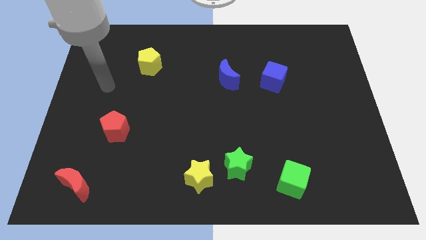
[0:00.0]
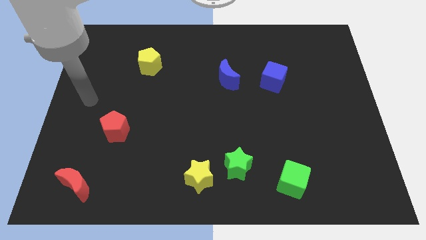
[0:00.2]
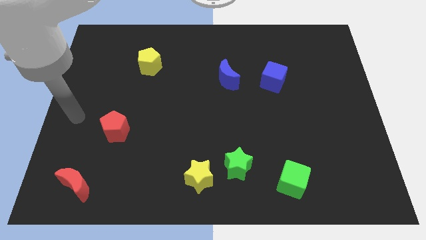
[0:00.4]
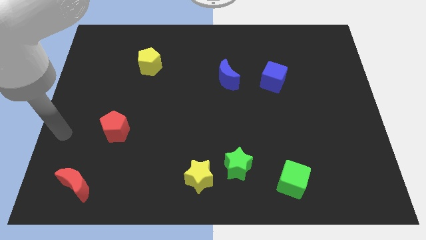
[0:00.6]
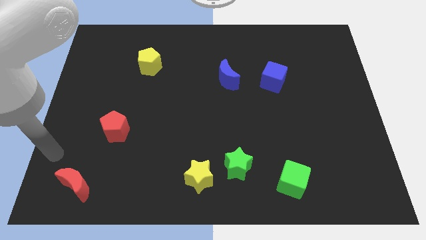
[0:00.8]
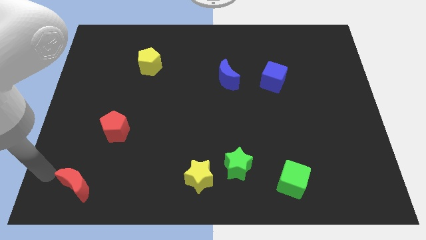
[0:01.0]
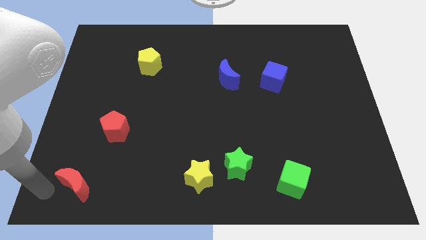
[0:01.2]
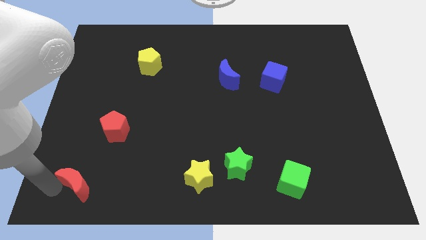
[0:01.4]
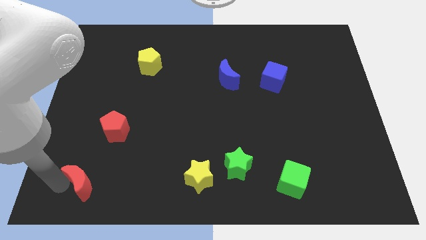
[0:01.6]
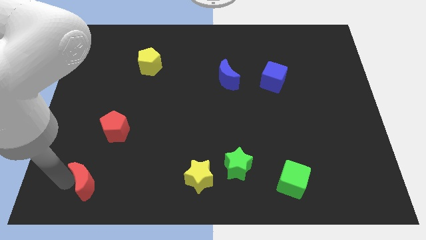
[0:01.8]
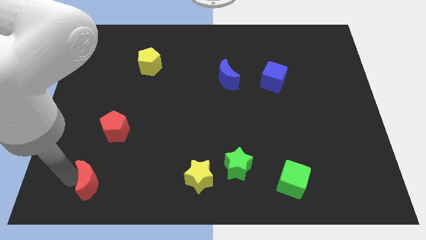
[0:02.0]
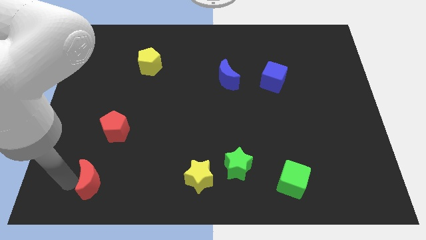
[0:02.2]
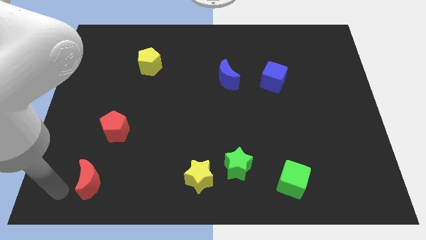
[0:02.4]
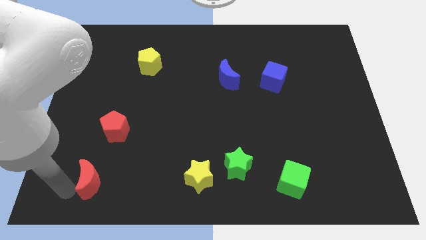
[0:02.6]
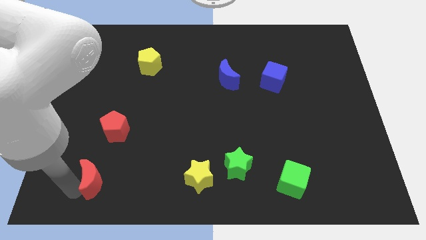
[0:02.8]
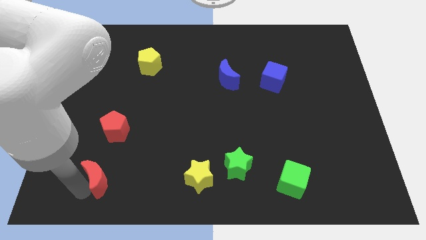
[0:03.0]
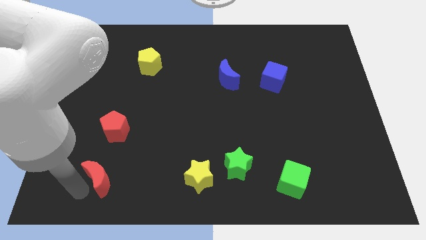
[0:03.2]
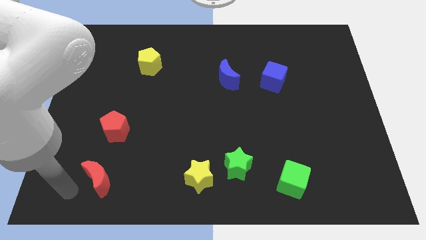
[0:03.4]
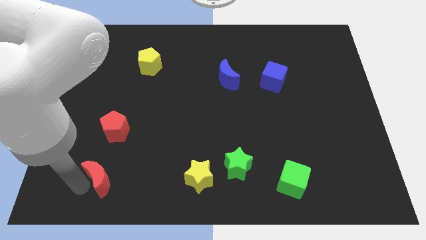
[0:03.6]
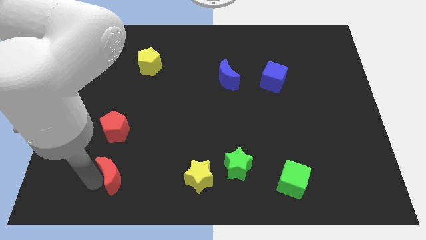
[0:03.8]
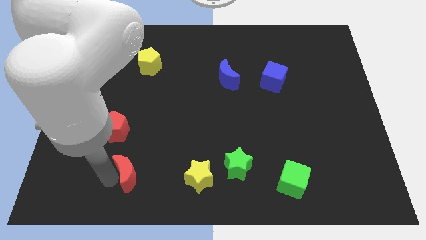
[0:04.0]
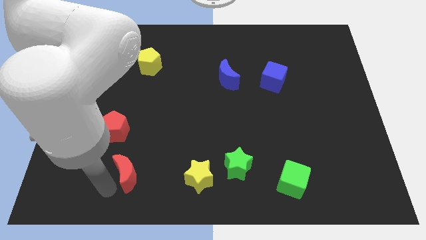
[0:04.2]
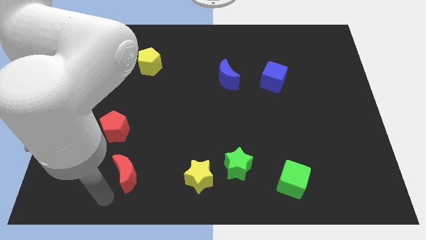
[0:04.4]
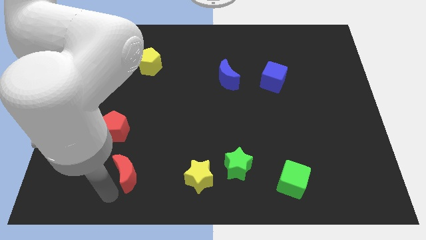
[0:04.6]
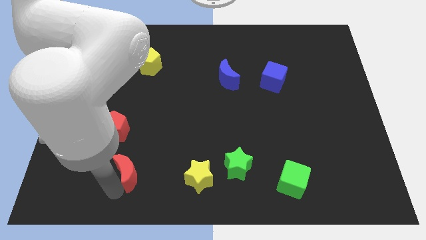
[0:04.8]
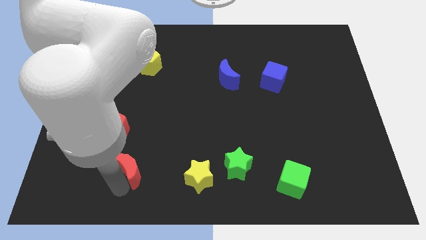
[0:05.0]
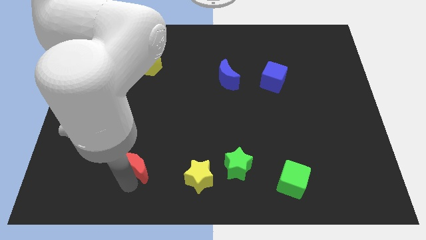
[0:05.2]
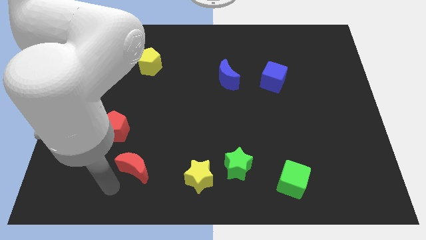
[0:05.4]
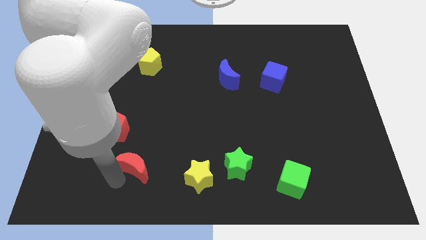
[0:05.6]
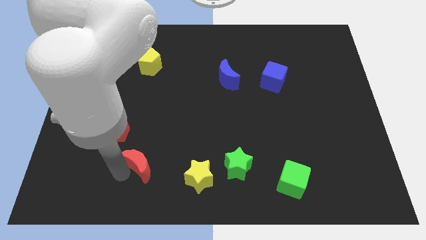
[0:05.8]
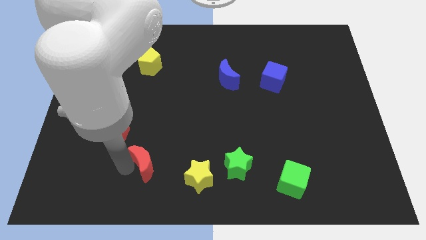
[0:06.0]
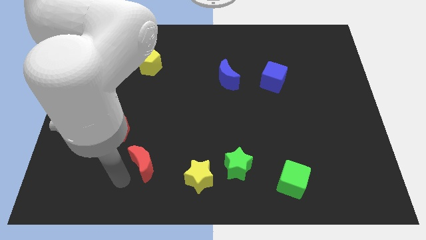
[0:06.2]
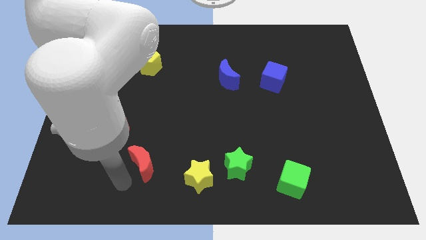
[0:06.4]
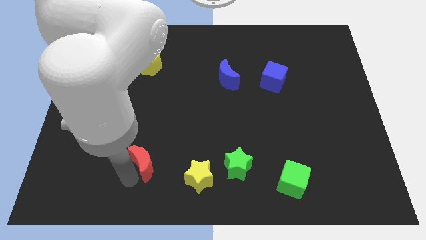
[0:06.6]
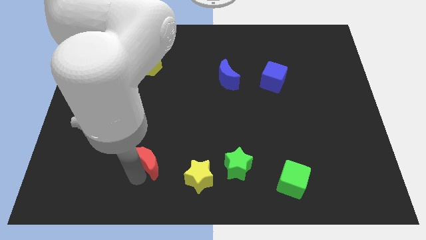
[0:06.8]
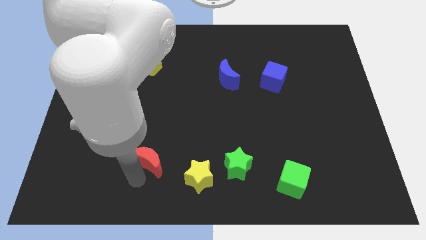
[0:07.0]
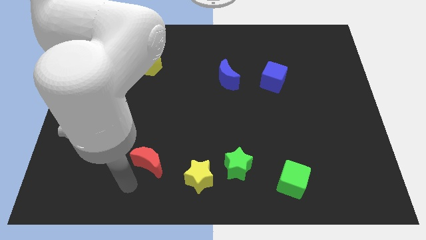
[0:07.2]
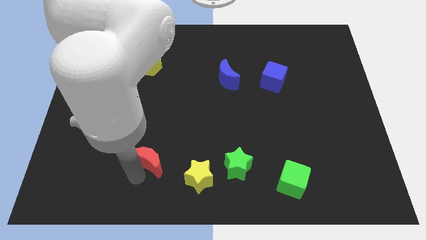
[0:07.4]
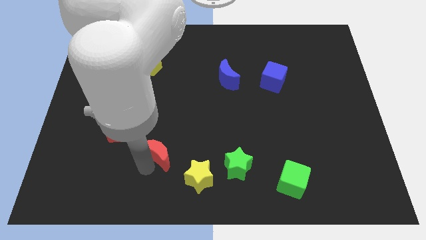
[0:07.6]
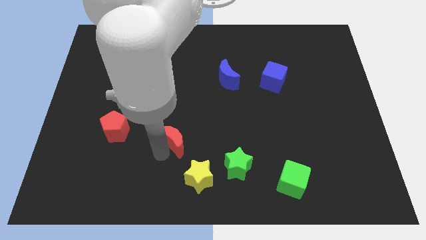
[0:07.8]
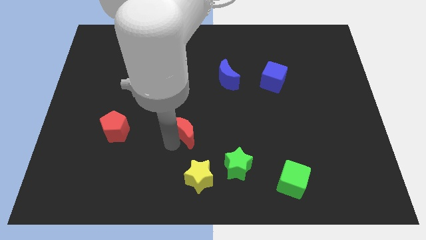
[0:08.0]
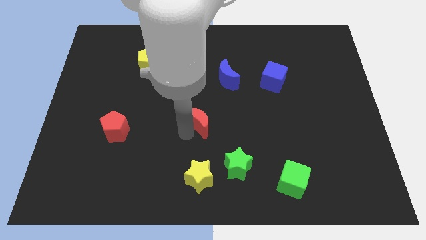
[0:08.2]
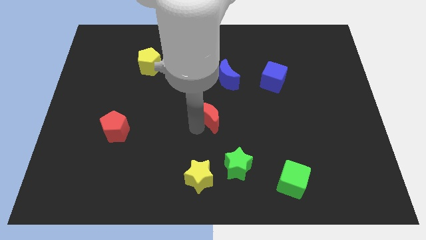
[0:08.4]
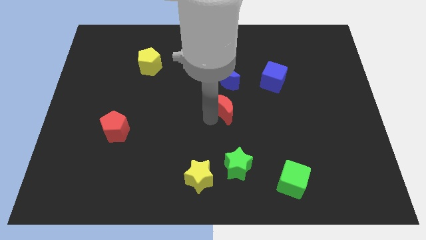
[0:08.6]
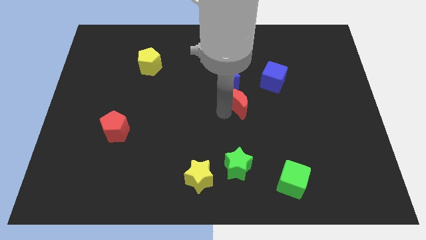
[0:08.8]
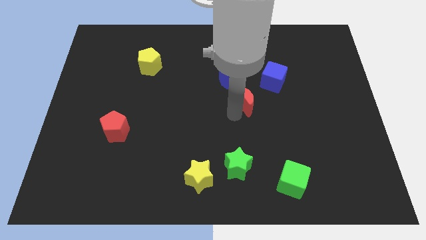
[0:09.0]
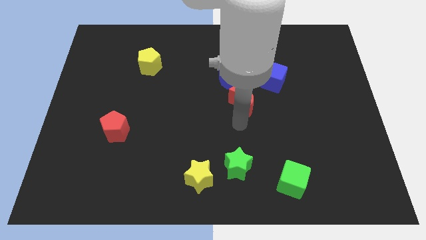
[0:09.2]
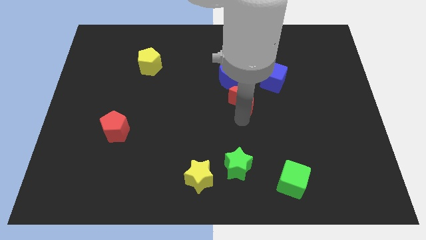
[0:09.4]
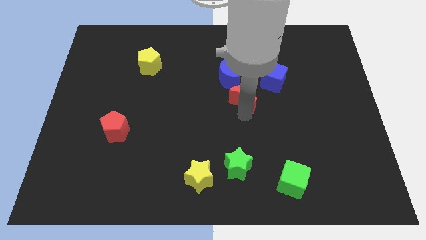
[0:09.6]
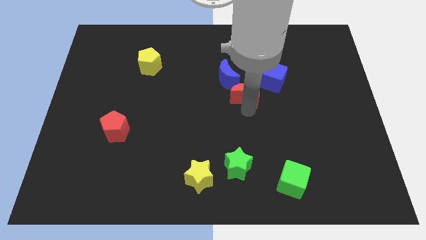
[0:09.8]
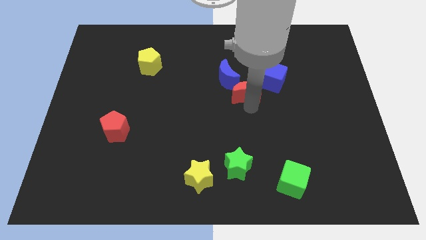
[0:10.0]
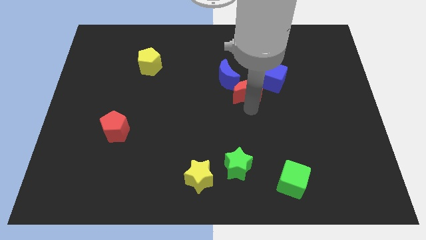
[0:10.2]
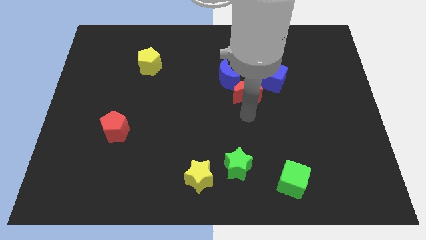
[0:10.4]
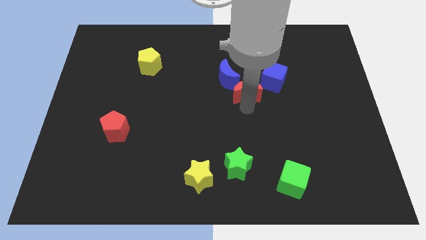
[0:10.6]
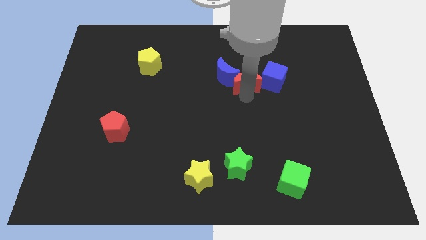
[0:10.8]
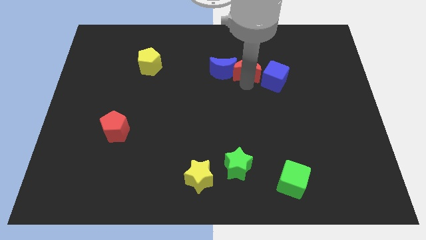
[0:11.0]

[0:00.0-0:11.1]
move the red moon to the top right side of the blue moon

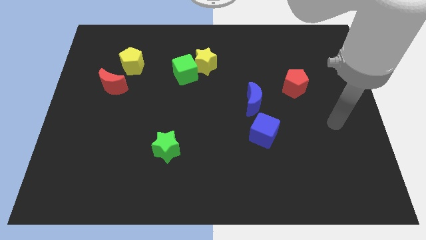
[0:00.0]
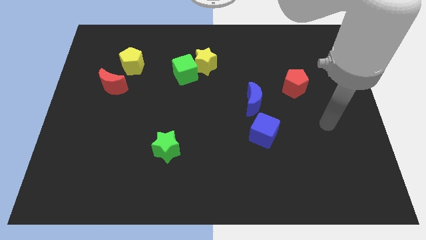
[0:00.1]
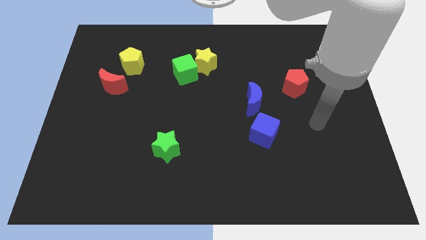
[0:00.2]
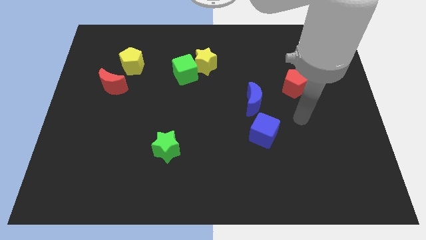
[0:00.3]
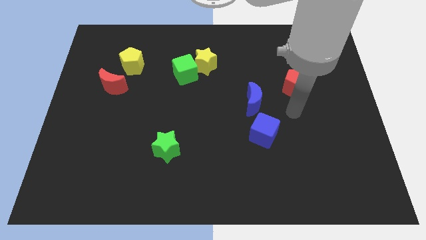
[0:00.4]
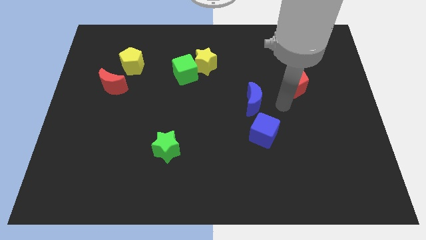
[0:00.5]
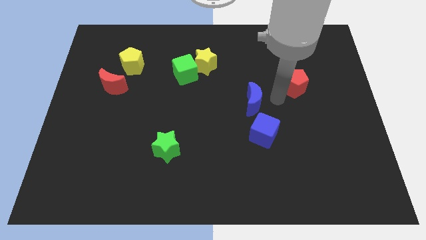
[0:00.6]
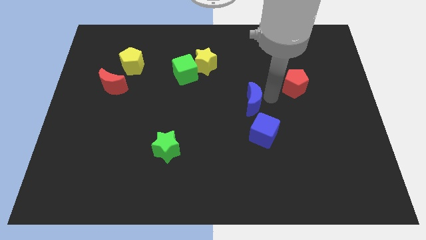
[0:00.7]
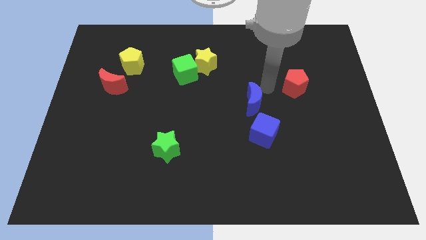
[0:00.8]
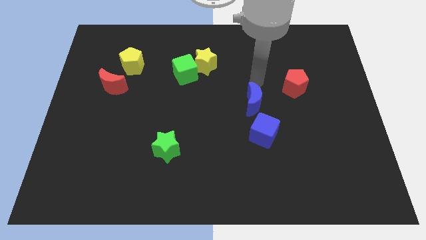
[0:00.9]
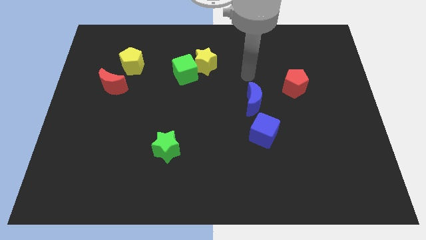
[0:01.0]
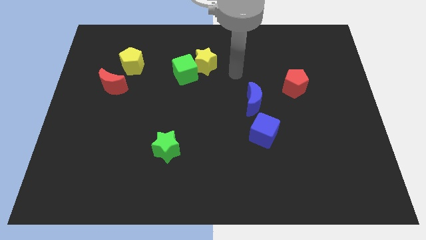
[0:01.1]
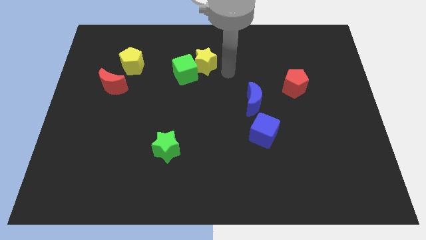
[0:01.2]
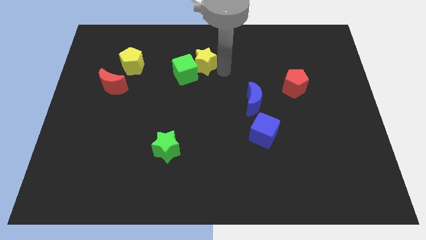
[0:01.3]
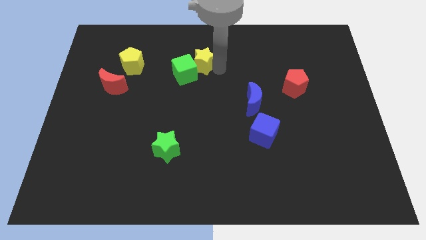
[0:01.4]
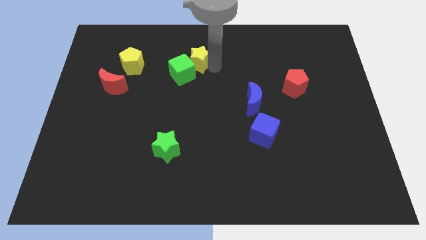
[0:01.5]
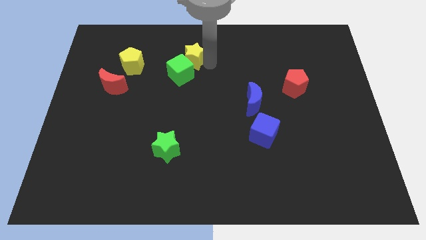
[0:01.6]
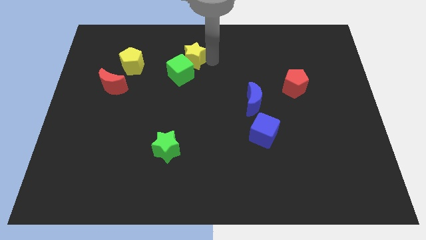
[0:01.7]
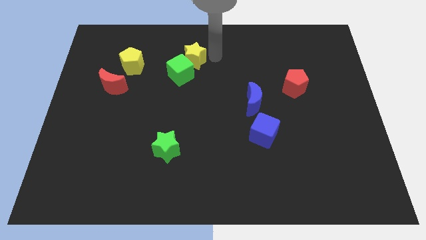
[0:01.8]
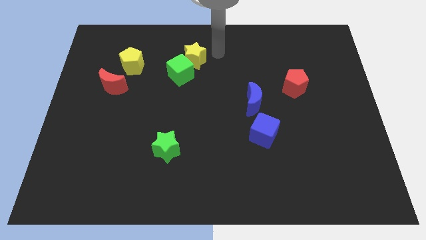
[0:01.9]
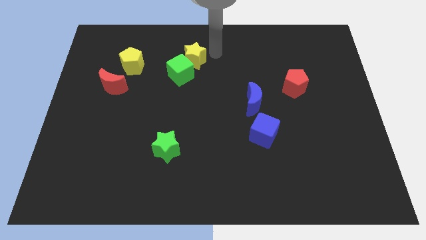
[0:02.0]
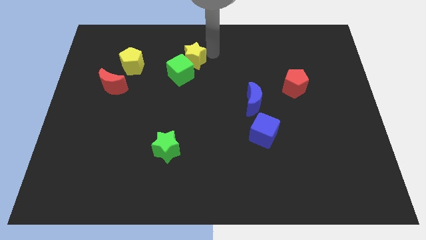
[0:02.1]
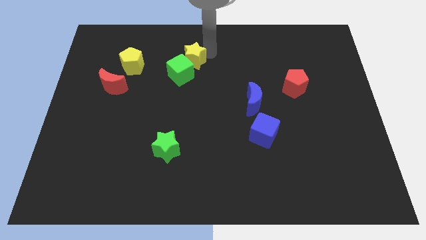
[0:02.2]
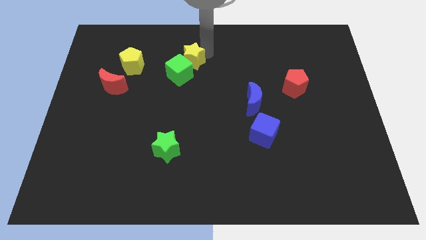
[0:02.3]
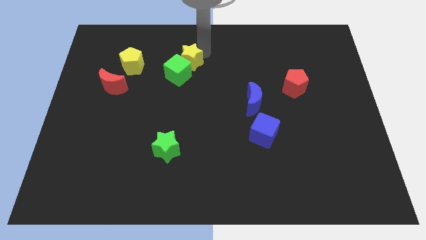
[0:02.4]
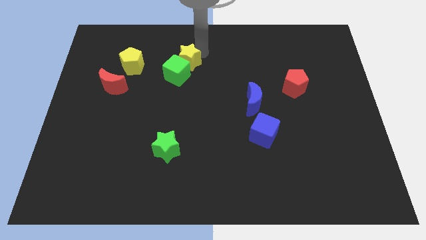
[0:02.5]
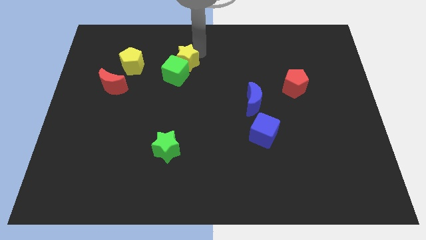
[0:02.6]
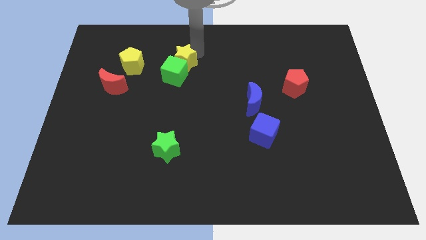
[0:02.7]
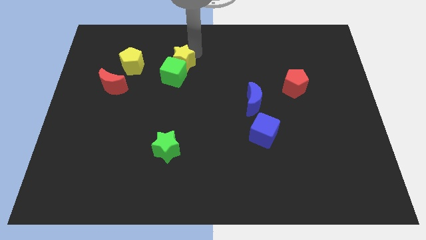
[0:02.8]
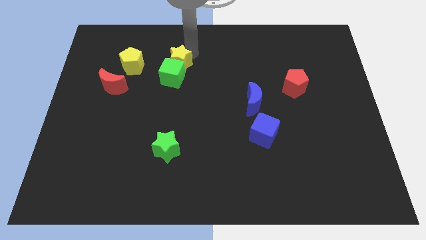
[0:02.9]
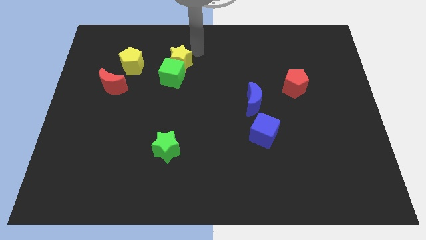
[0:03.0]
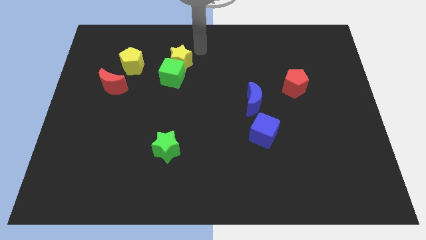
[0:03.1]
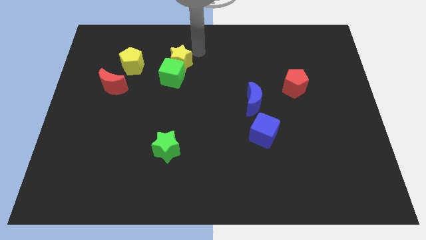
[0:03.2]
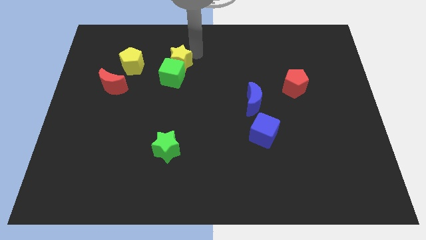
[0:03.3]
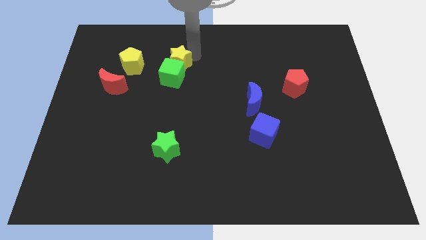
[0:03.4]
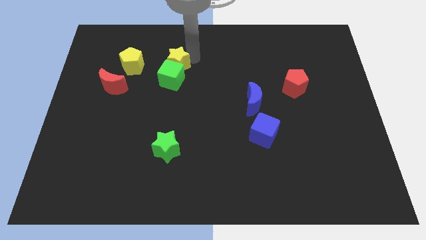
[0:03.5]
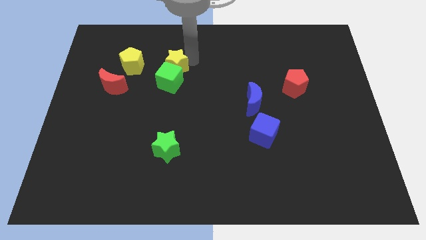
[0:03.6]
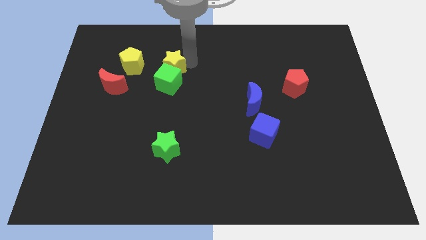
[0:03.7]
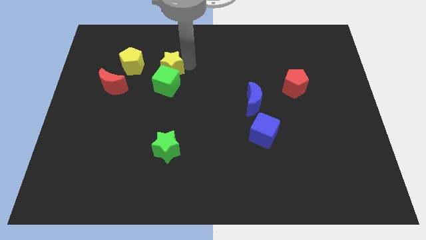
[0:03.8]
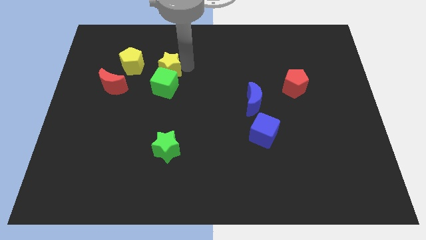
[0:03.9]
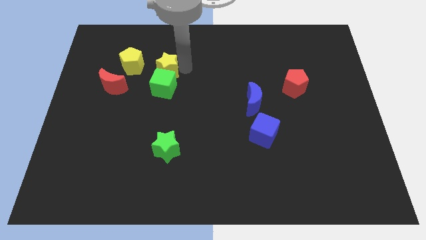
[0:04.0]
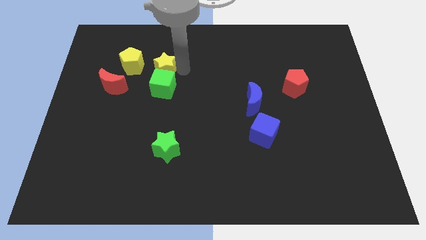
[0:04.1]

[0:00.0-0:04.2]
slide the yellow star to the bottom right of the yellow pentagon
